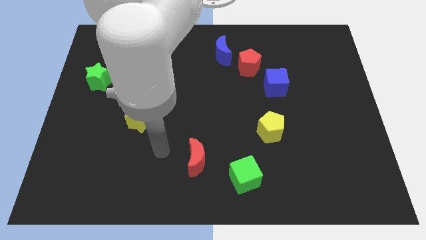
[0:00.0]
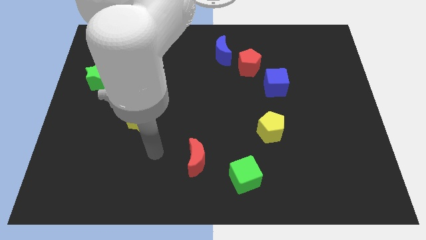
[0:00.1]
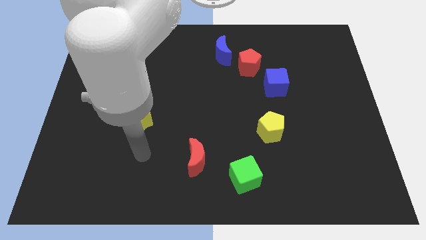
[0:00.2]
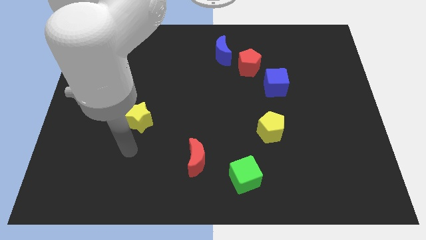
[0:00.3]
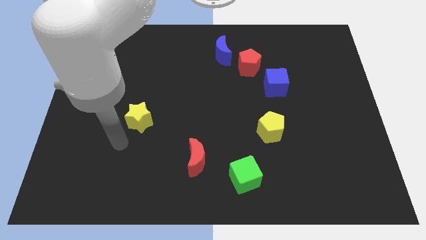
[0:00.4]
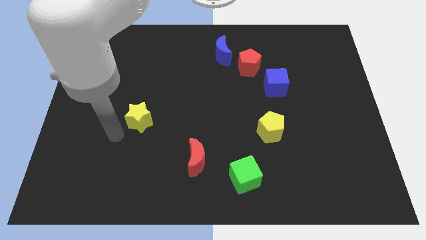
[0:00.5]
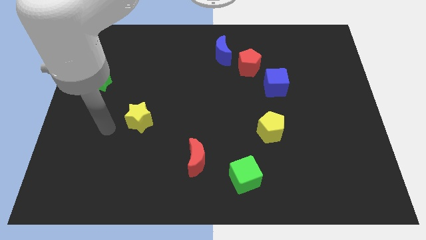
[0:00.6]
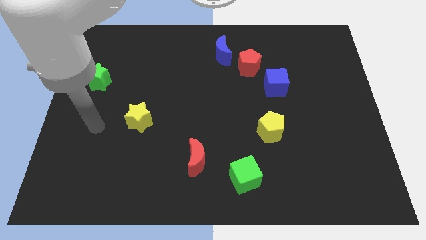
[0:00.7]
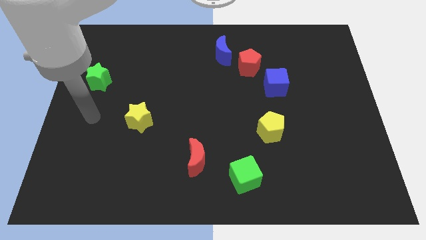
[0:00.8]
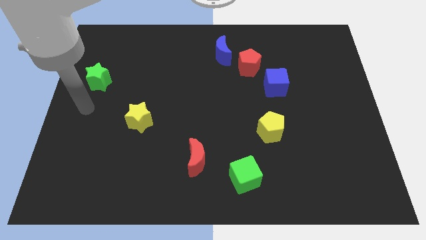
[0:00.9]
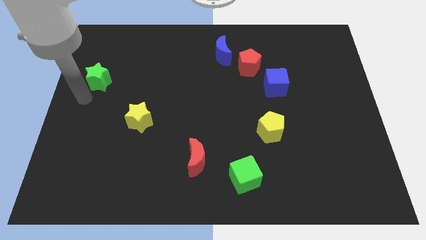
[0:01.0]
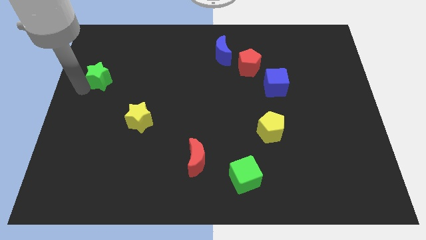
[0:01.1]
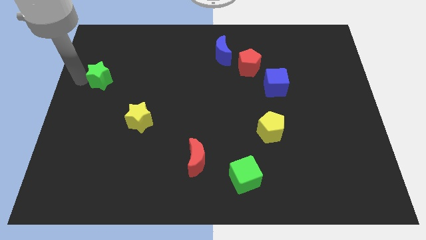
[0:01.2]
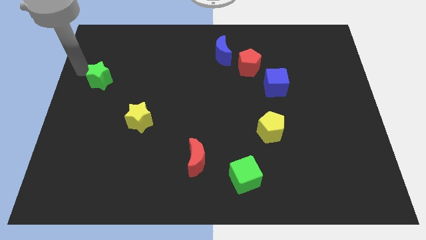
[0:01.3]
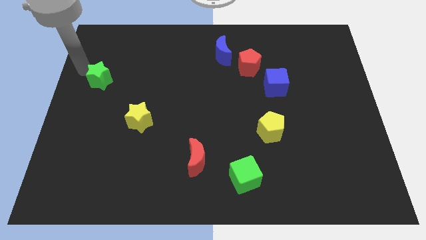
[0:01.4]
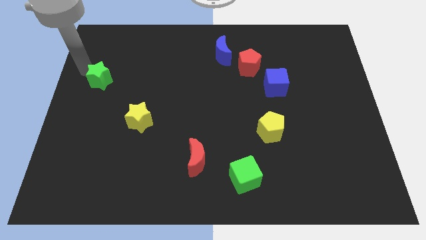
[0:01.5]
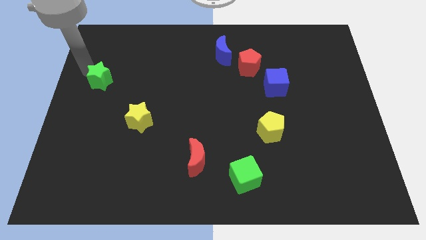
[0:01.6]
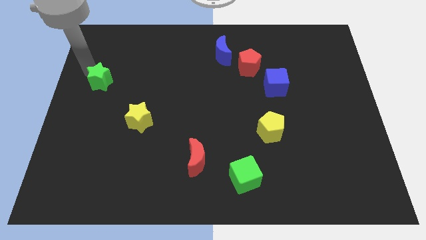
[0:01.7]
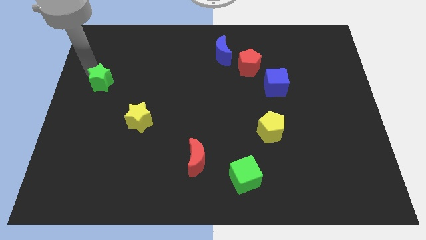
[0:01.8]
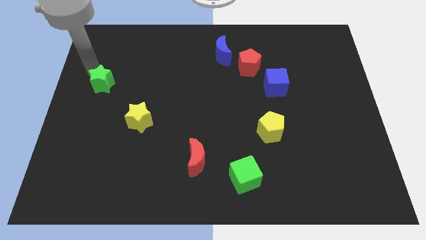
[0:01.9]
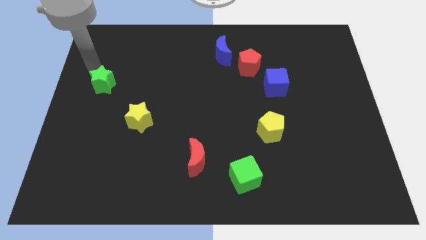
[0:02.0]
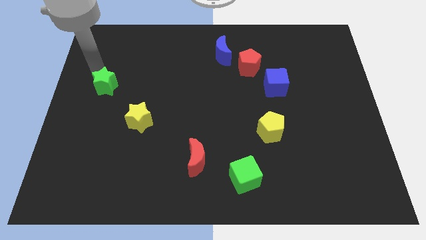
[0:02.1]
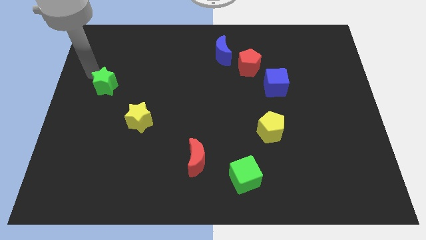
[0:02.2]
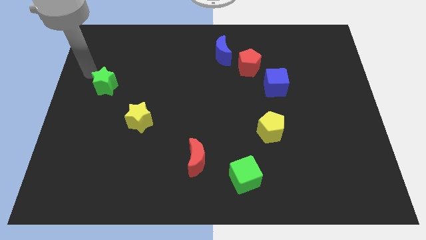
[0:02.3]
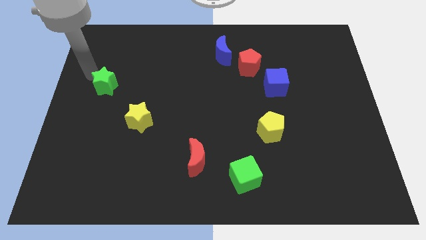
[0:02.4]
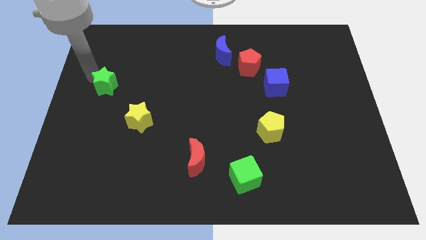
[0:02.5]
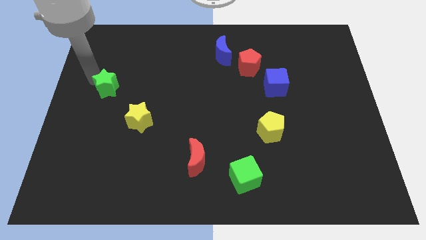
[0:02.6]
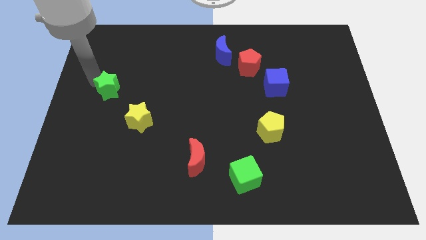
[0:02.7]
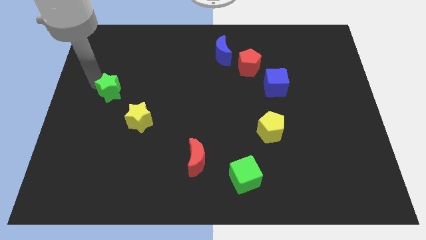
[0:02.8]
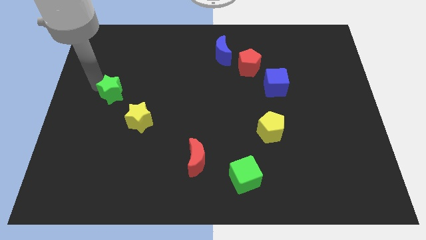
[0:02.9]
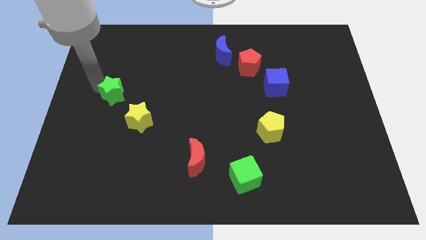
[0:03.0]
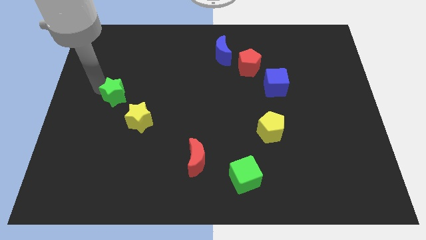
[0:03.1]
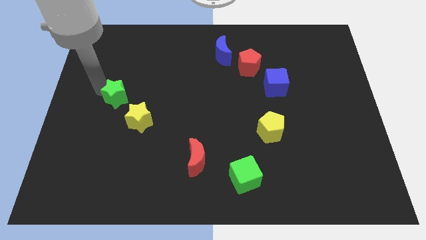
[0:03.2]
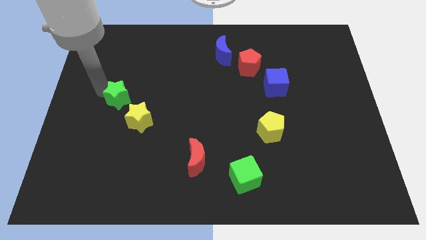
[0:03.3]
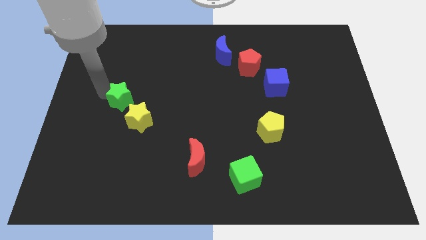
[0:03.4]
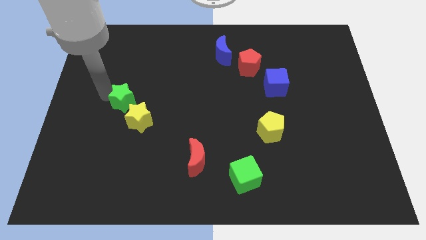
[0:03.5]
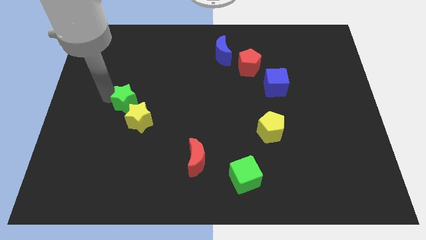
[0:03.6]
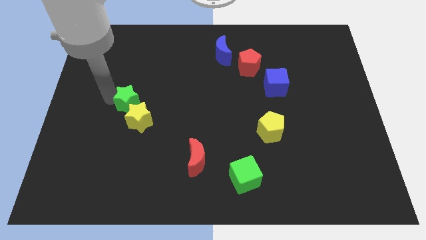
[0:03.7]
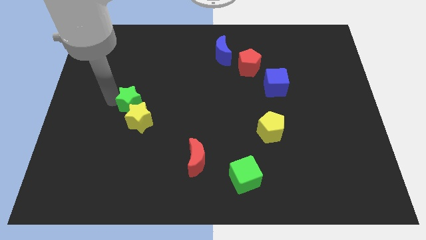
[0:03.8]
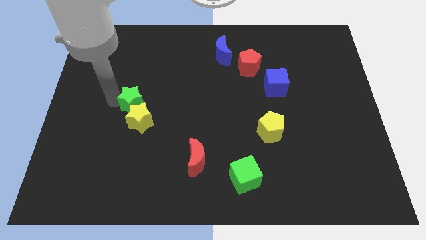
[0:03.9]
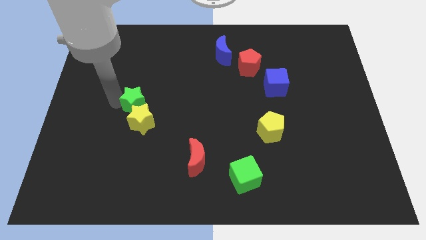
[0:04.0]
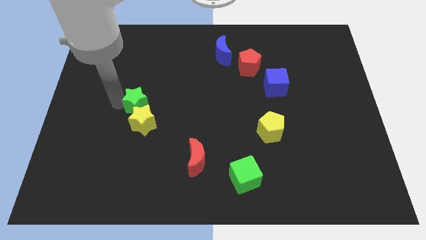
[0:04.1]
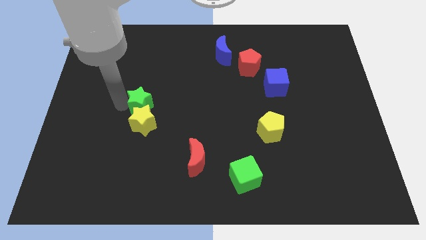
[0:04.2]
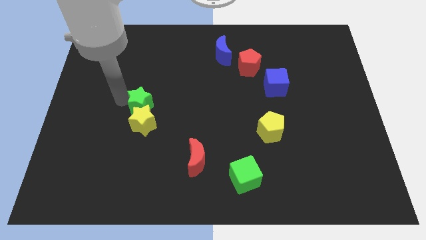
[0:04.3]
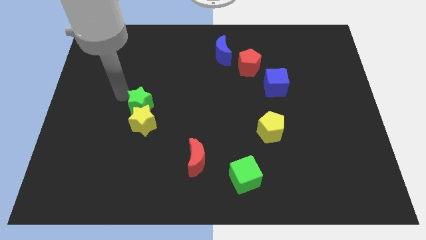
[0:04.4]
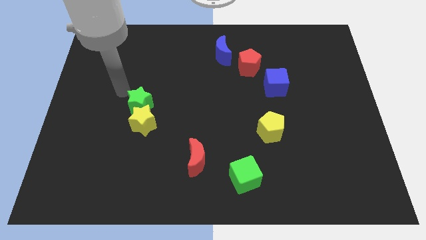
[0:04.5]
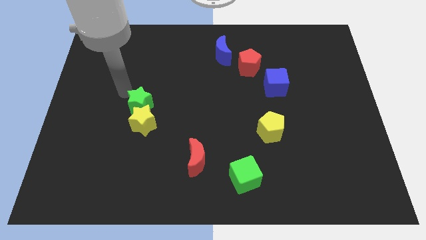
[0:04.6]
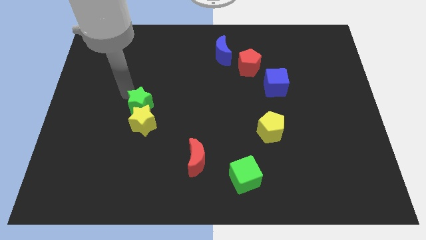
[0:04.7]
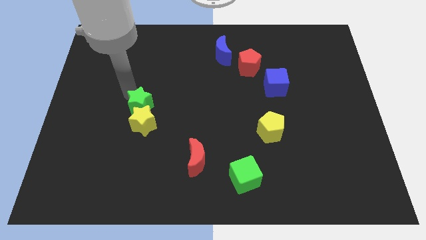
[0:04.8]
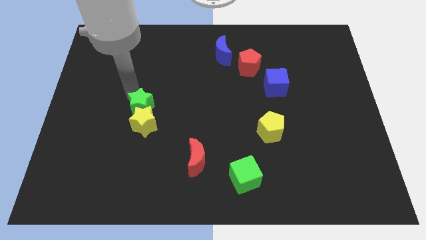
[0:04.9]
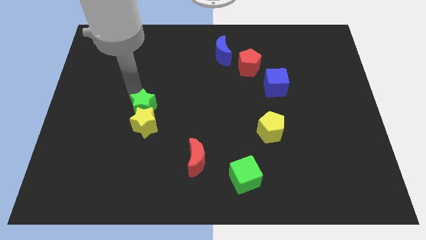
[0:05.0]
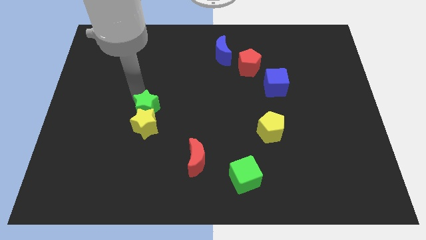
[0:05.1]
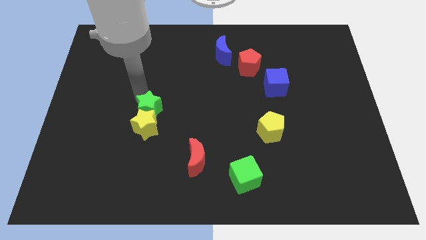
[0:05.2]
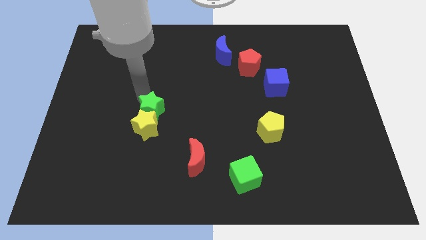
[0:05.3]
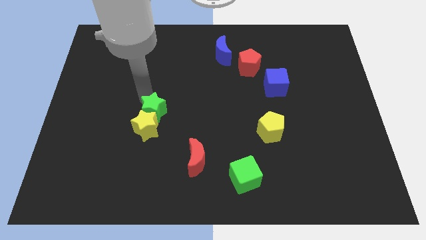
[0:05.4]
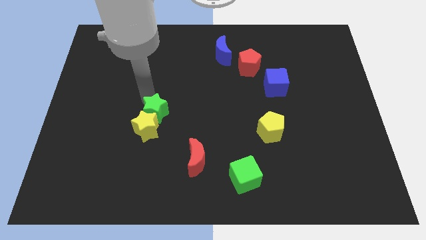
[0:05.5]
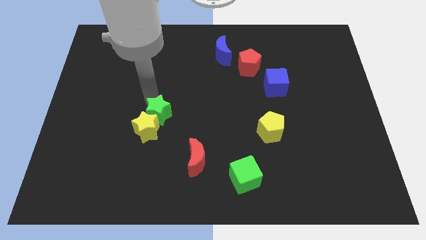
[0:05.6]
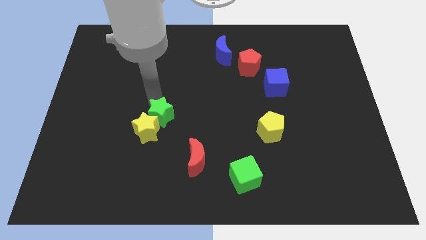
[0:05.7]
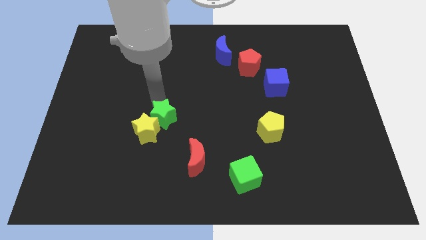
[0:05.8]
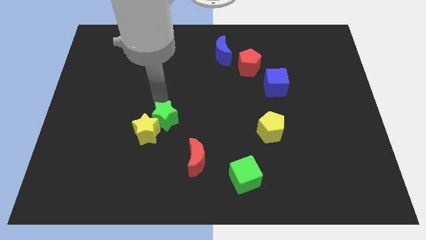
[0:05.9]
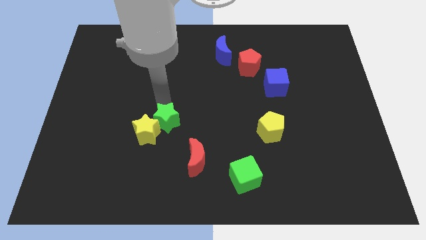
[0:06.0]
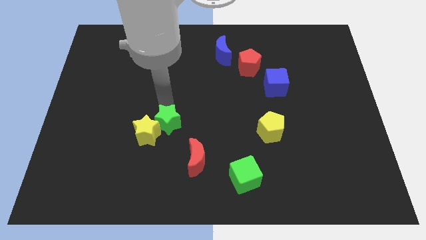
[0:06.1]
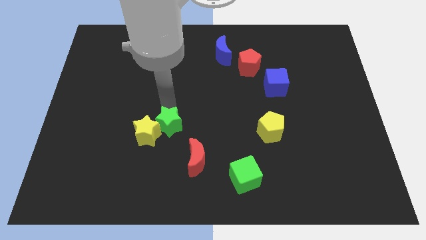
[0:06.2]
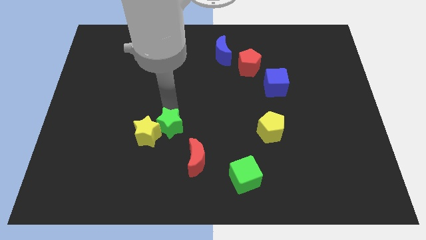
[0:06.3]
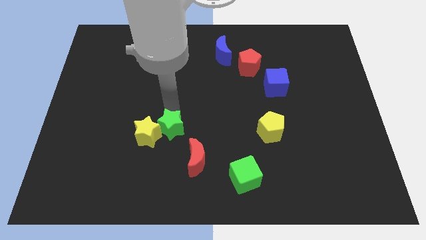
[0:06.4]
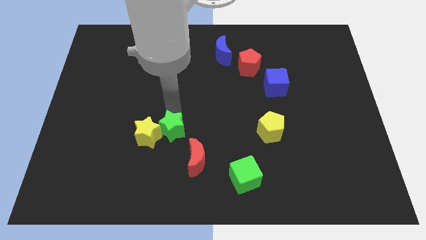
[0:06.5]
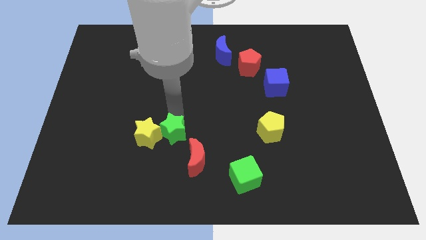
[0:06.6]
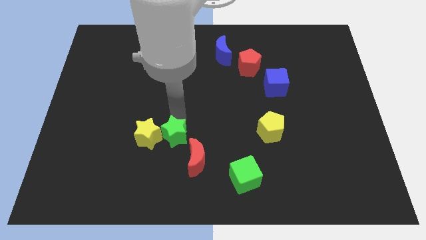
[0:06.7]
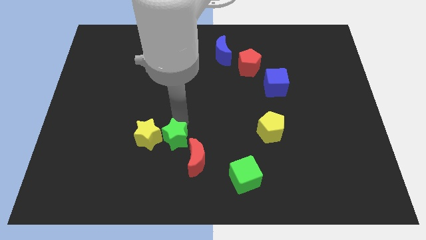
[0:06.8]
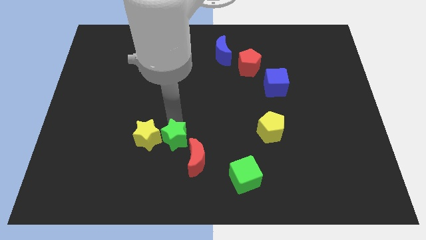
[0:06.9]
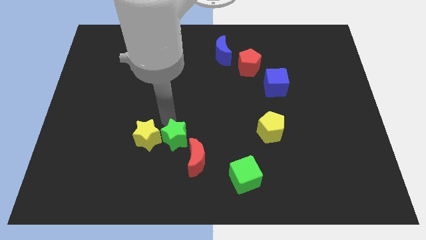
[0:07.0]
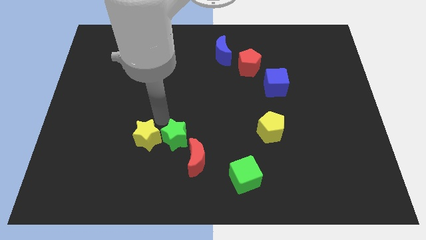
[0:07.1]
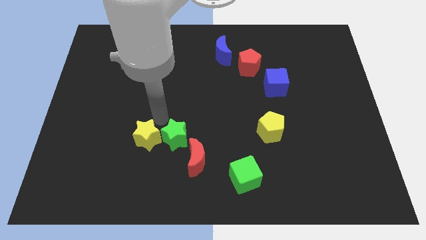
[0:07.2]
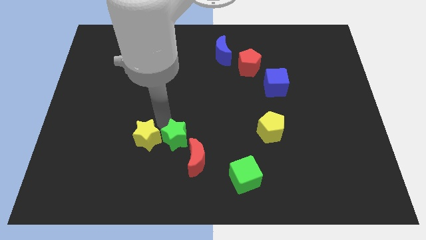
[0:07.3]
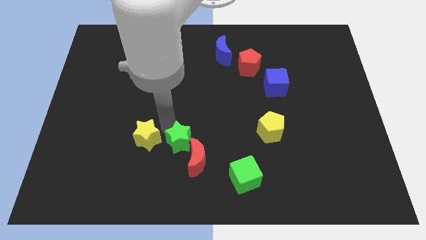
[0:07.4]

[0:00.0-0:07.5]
move the green star next to the red moon

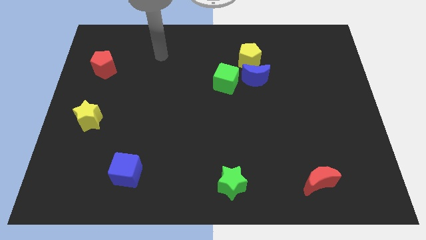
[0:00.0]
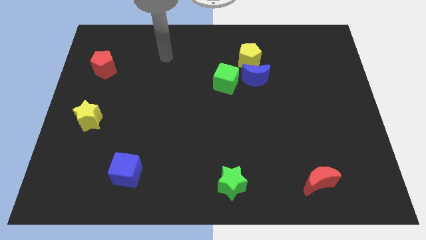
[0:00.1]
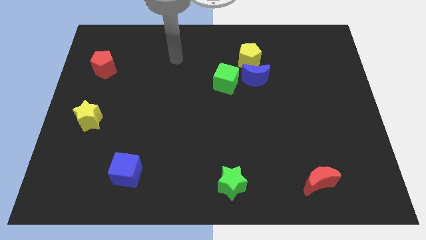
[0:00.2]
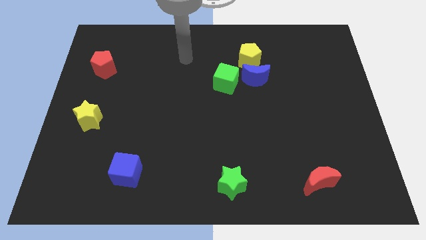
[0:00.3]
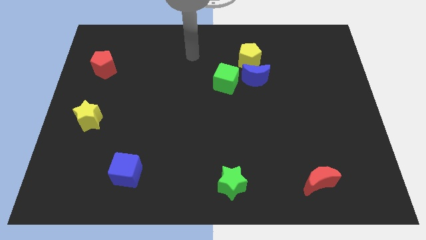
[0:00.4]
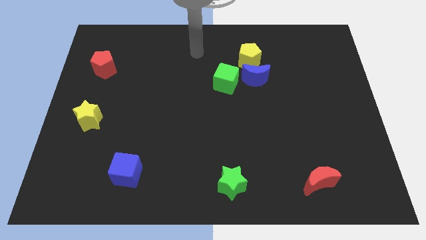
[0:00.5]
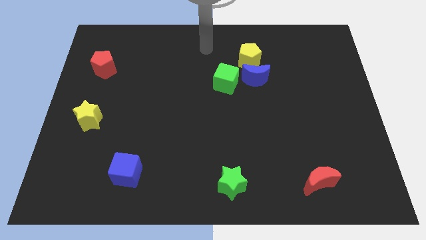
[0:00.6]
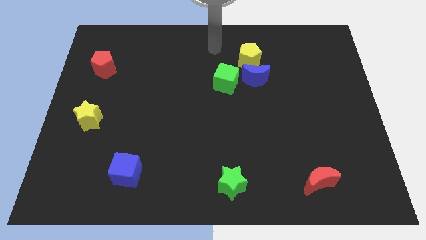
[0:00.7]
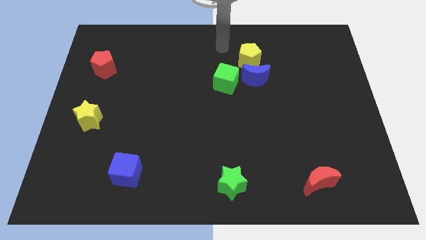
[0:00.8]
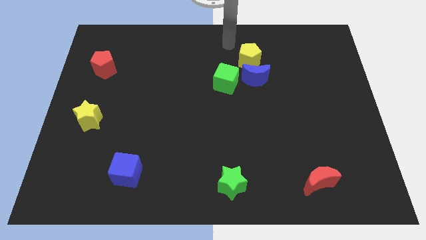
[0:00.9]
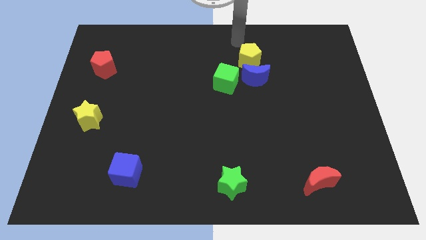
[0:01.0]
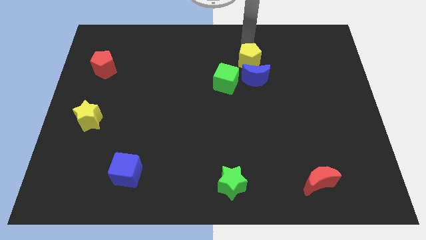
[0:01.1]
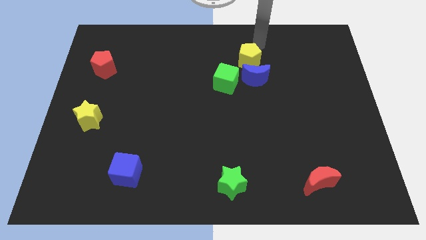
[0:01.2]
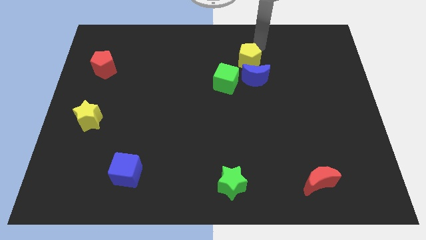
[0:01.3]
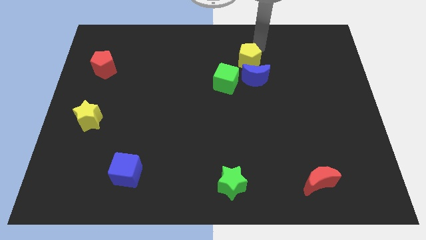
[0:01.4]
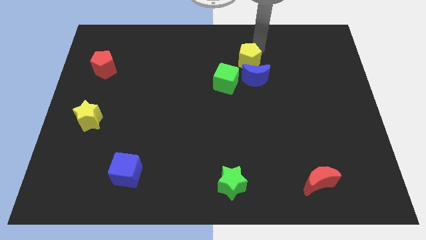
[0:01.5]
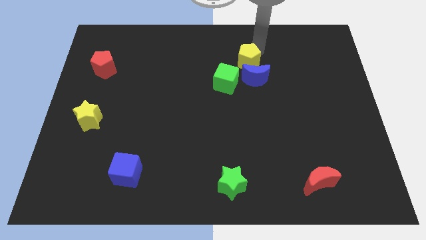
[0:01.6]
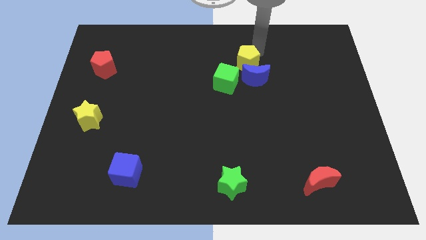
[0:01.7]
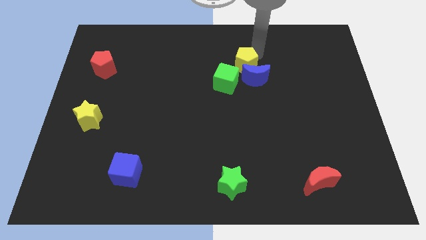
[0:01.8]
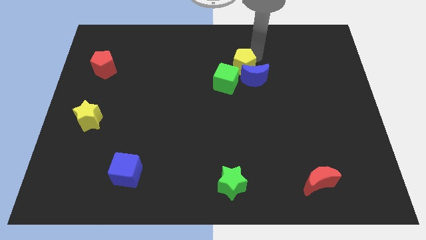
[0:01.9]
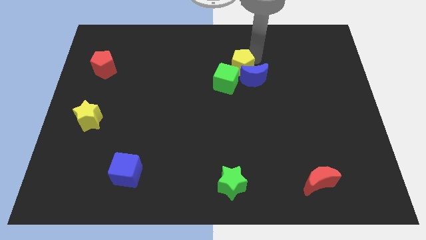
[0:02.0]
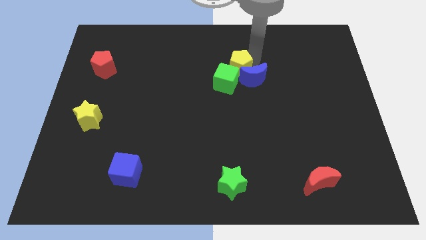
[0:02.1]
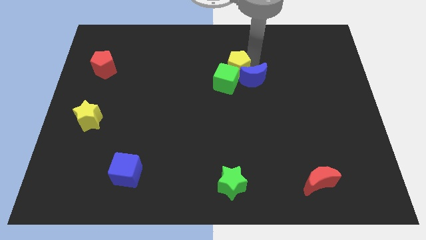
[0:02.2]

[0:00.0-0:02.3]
move the yellow pentagon to the green cube
